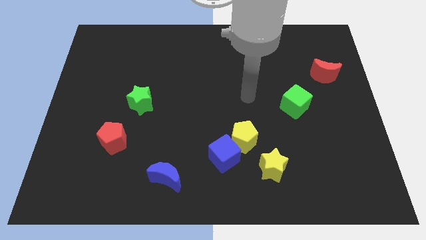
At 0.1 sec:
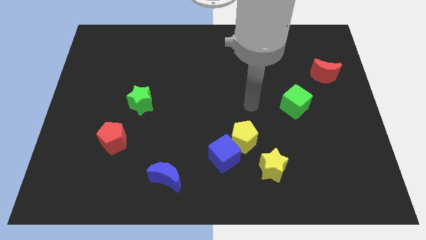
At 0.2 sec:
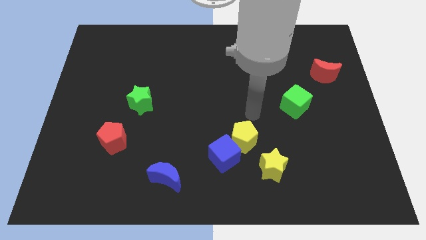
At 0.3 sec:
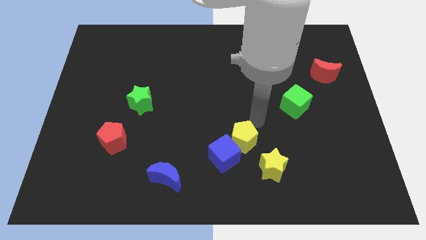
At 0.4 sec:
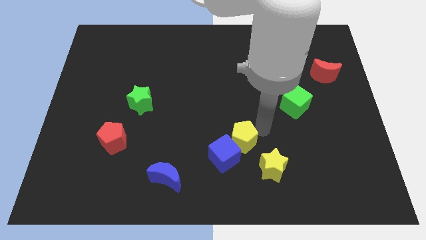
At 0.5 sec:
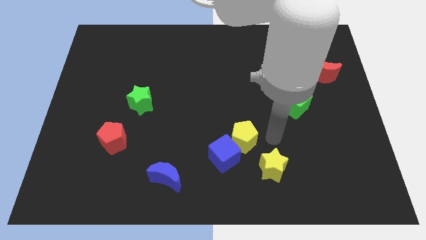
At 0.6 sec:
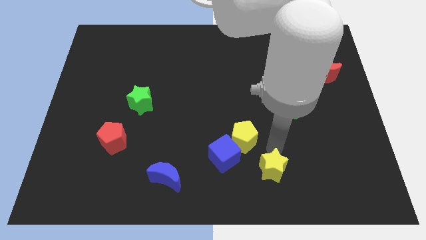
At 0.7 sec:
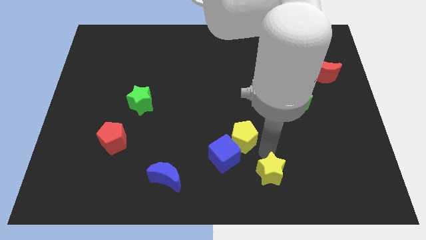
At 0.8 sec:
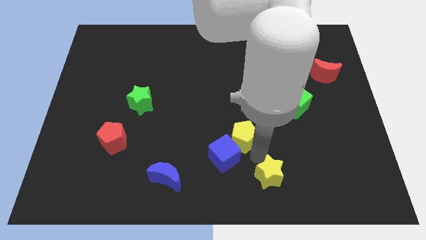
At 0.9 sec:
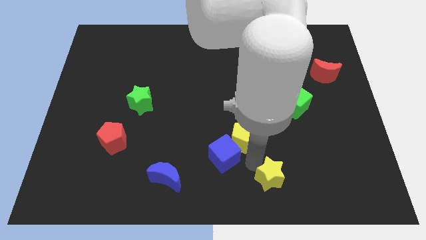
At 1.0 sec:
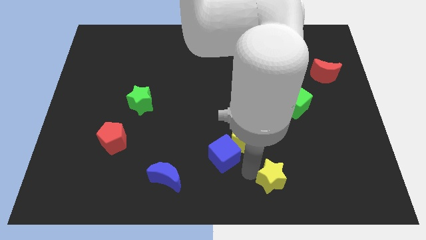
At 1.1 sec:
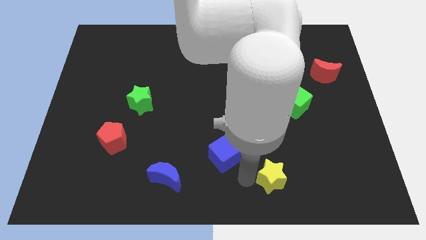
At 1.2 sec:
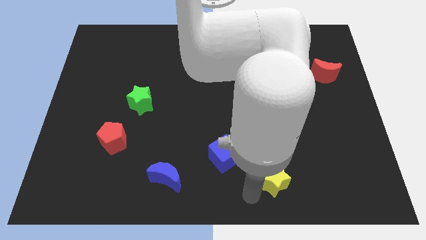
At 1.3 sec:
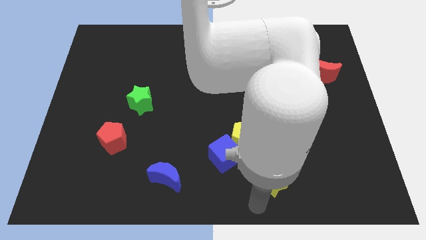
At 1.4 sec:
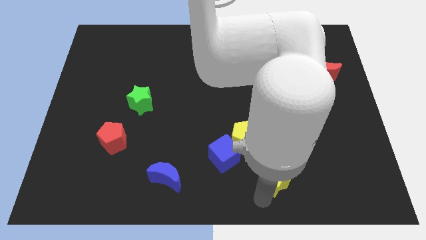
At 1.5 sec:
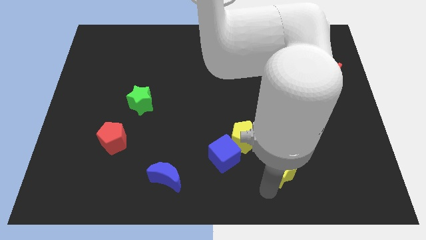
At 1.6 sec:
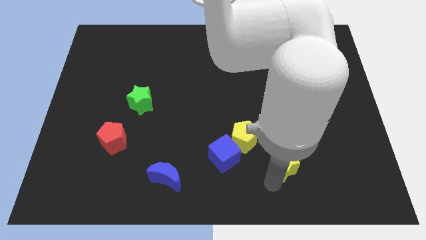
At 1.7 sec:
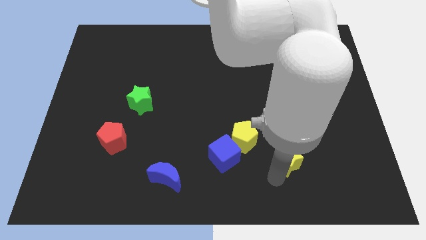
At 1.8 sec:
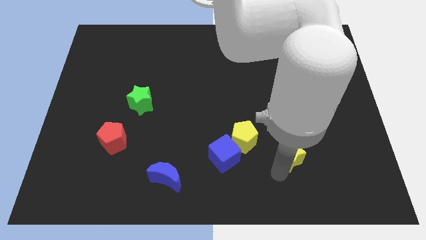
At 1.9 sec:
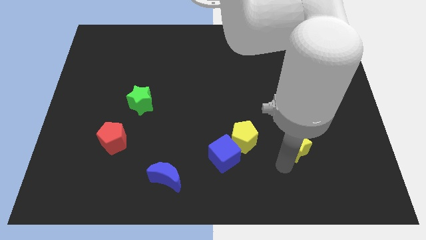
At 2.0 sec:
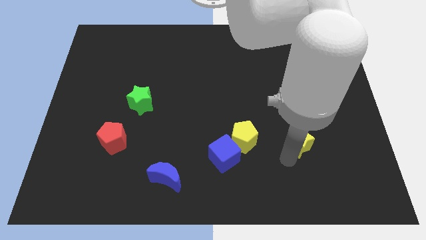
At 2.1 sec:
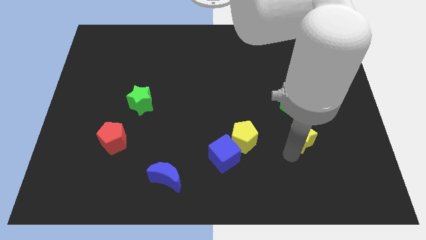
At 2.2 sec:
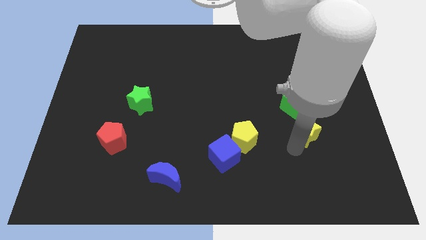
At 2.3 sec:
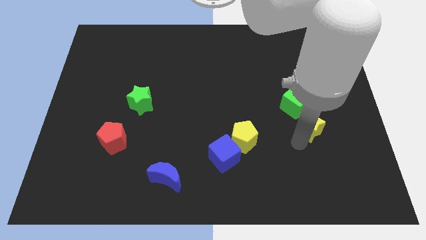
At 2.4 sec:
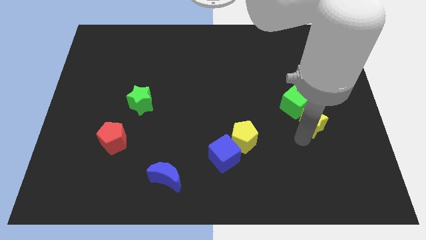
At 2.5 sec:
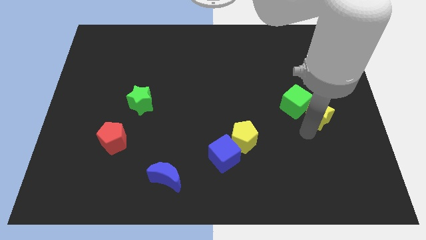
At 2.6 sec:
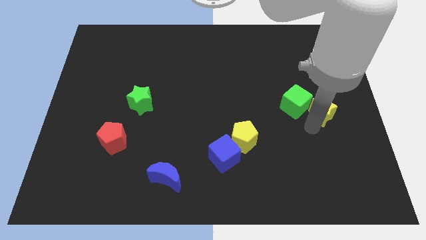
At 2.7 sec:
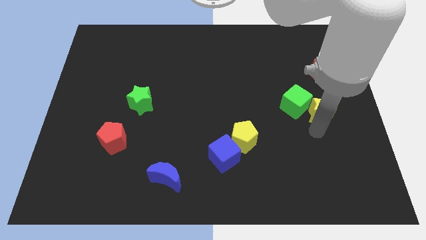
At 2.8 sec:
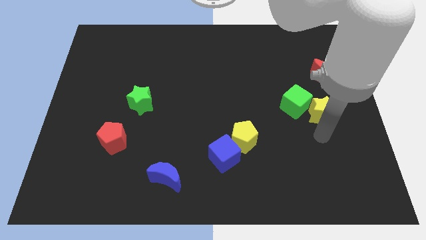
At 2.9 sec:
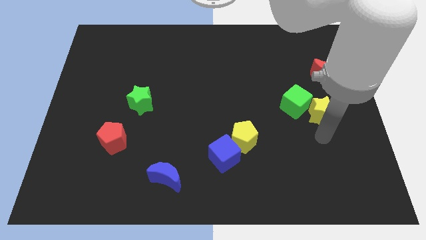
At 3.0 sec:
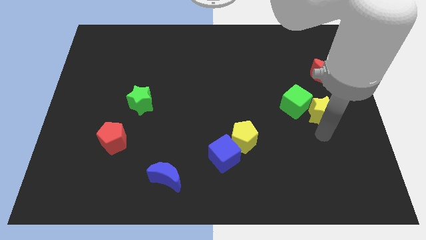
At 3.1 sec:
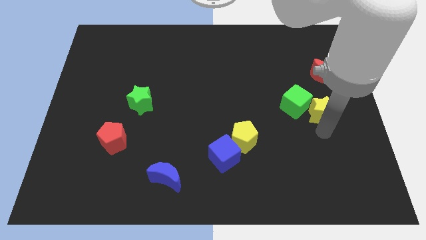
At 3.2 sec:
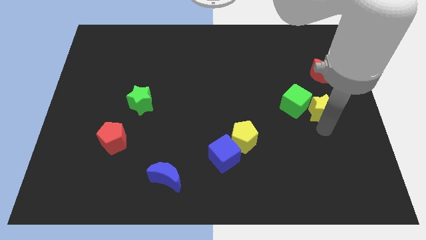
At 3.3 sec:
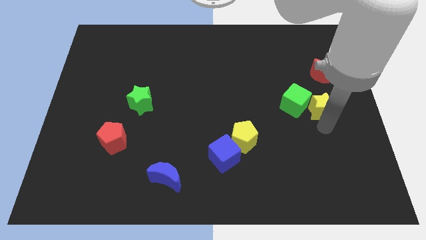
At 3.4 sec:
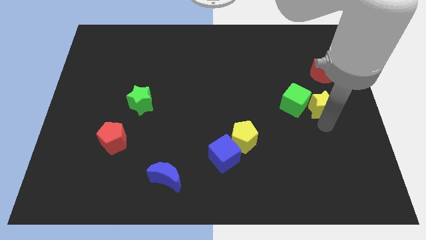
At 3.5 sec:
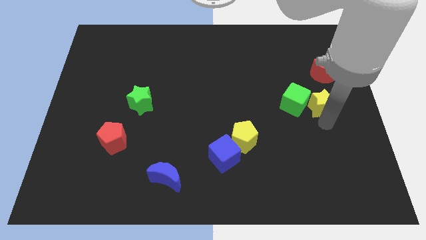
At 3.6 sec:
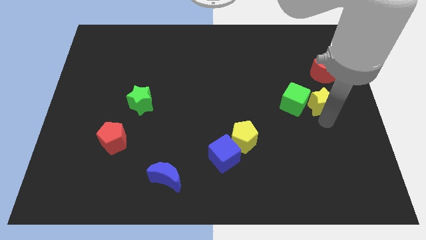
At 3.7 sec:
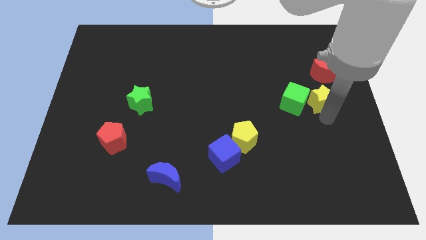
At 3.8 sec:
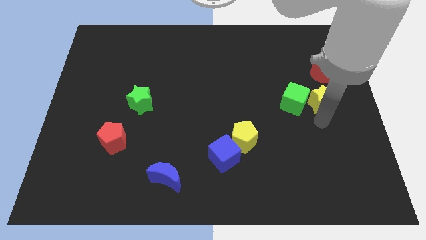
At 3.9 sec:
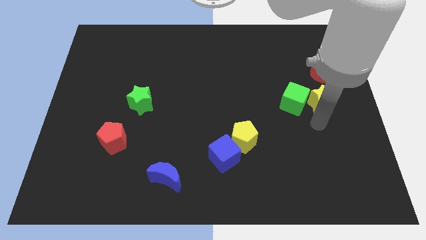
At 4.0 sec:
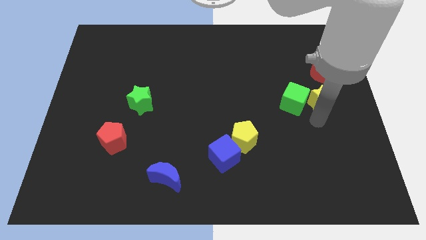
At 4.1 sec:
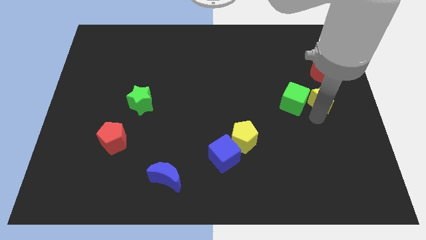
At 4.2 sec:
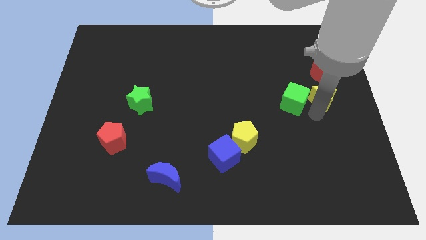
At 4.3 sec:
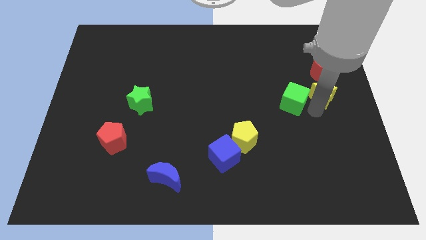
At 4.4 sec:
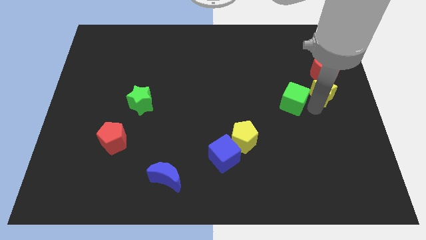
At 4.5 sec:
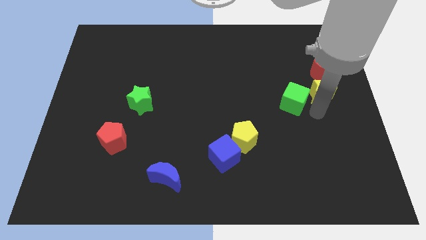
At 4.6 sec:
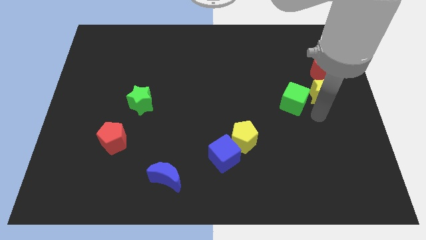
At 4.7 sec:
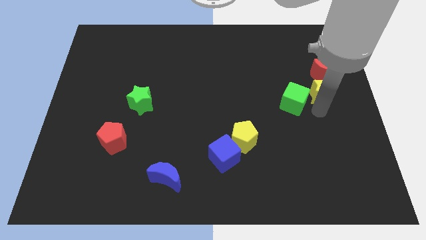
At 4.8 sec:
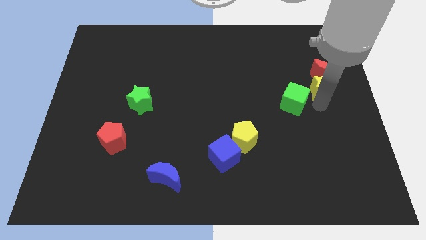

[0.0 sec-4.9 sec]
move the yellow star to the red moon

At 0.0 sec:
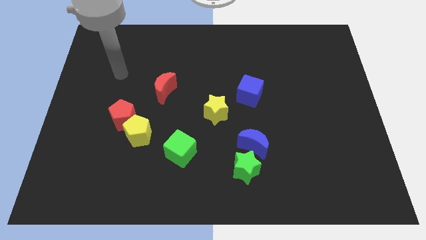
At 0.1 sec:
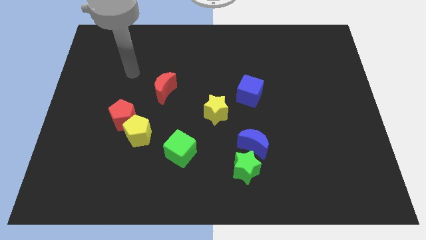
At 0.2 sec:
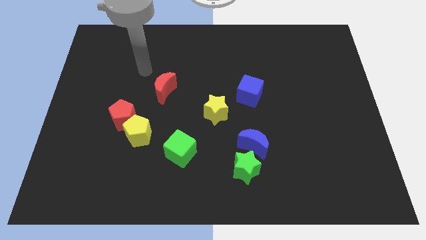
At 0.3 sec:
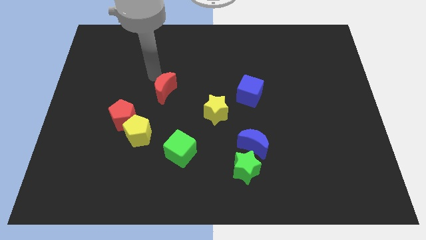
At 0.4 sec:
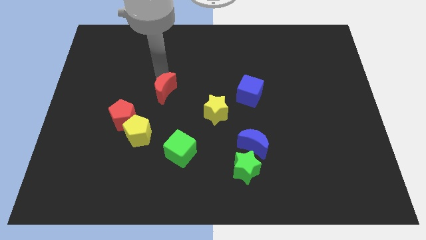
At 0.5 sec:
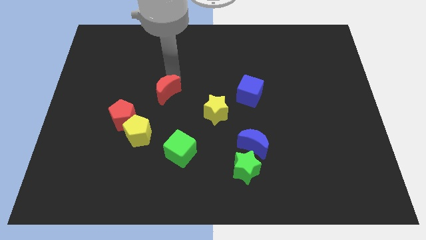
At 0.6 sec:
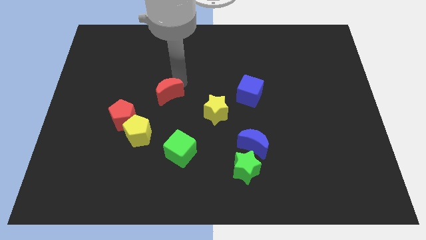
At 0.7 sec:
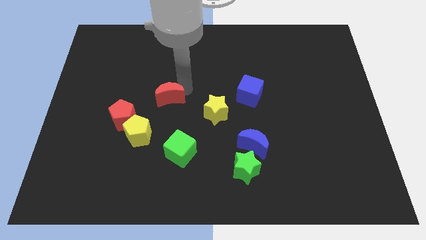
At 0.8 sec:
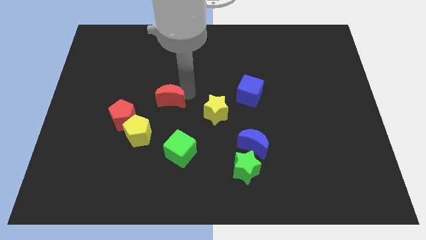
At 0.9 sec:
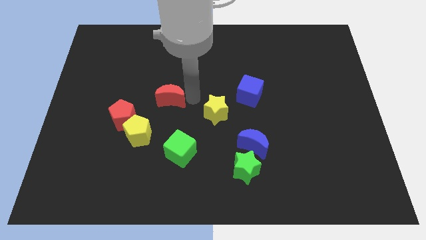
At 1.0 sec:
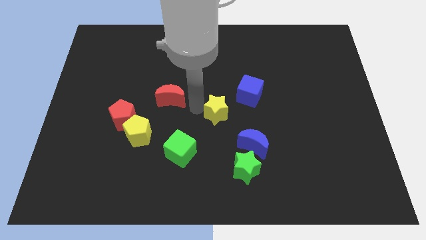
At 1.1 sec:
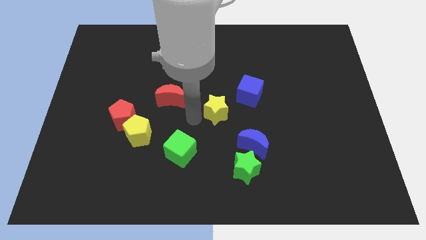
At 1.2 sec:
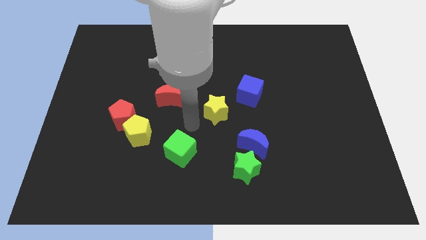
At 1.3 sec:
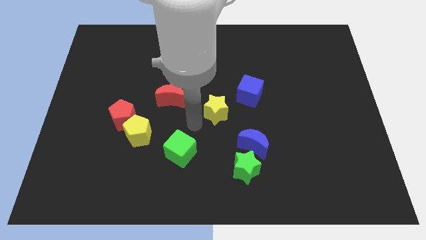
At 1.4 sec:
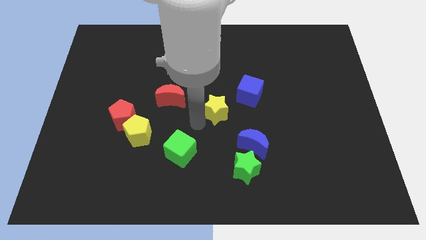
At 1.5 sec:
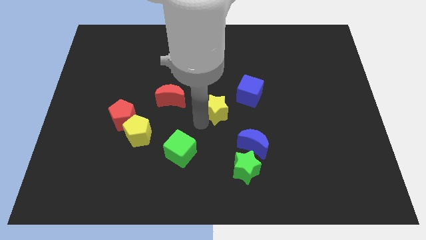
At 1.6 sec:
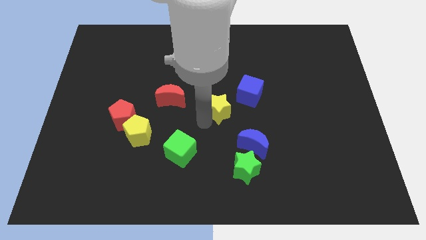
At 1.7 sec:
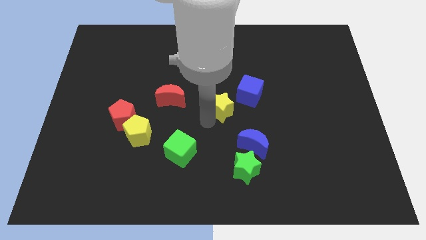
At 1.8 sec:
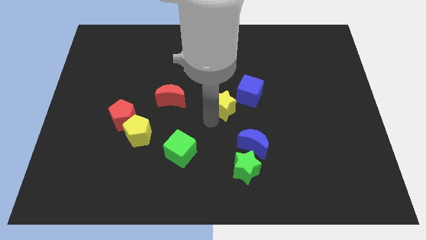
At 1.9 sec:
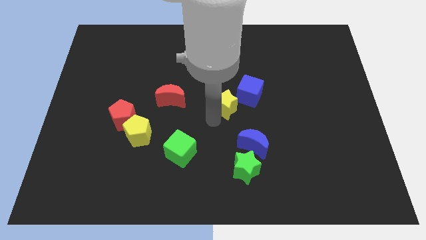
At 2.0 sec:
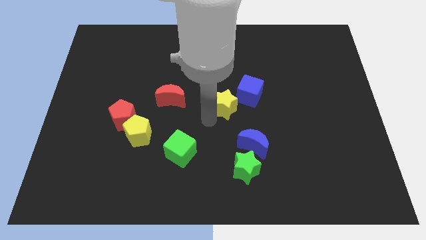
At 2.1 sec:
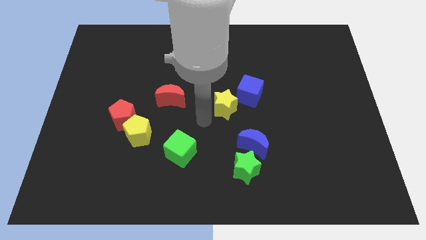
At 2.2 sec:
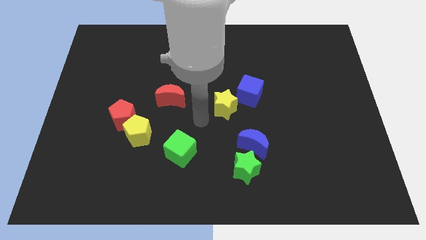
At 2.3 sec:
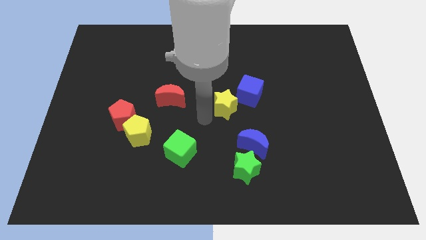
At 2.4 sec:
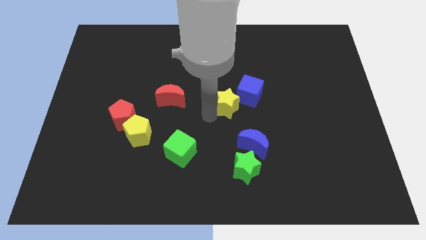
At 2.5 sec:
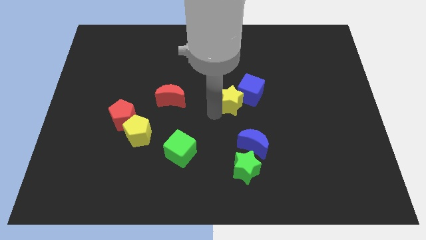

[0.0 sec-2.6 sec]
slide the yellow star close to the blue cube
